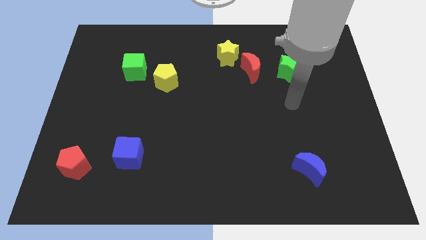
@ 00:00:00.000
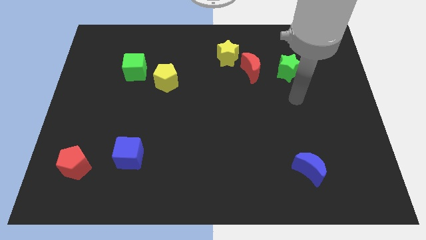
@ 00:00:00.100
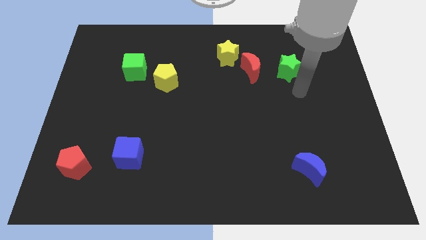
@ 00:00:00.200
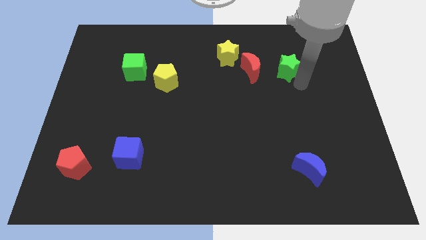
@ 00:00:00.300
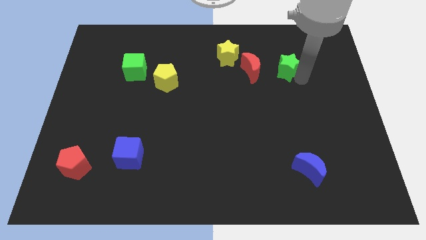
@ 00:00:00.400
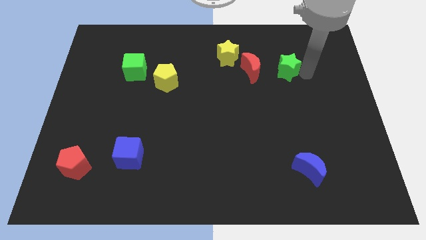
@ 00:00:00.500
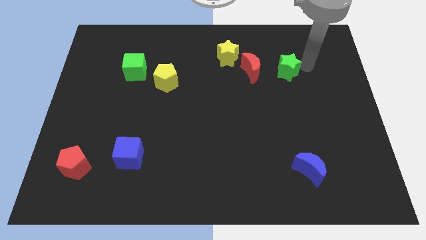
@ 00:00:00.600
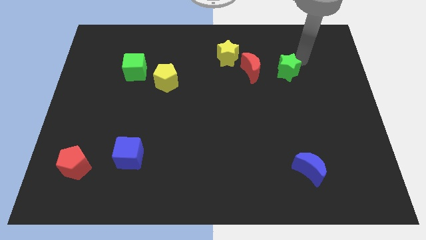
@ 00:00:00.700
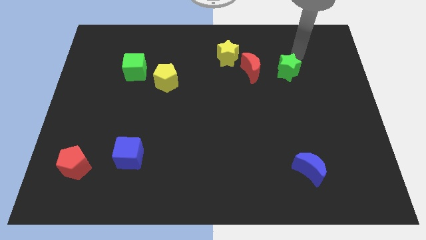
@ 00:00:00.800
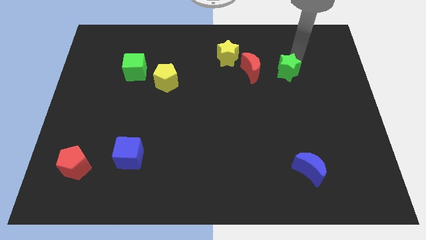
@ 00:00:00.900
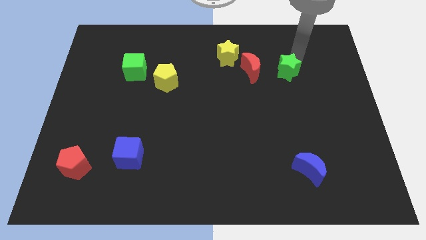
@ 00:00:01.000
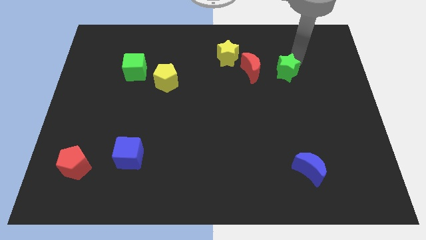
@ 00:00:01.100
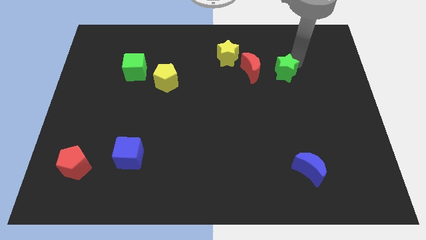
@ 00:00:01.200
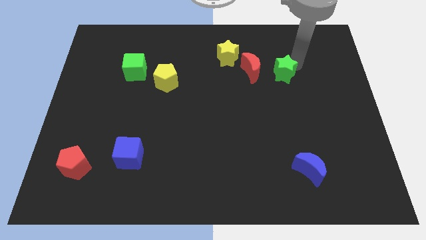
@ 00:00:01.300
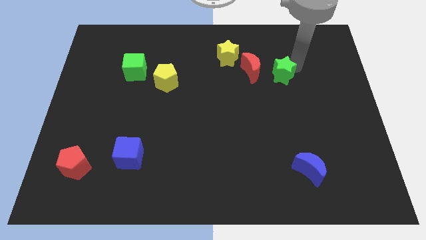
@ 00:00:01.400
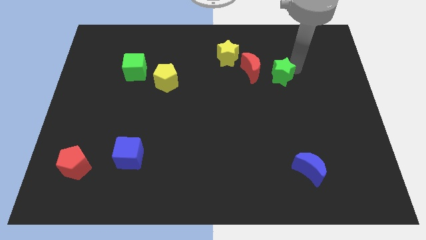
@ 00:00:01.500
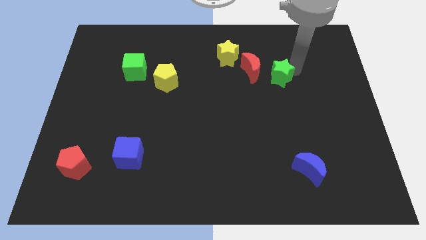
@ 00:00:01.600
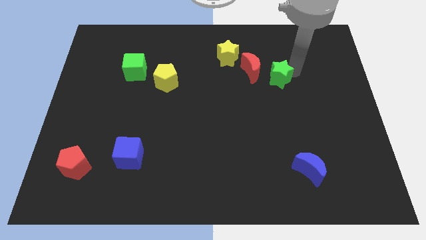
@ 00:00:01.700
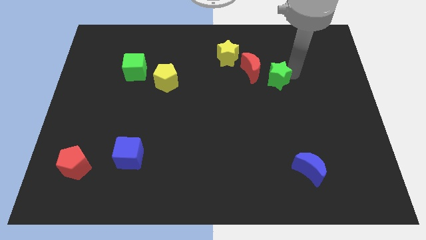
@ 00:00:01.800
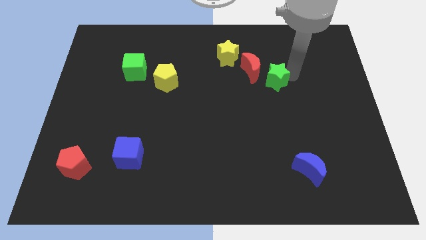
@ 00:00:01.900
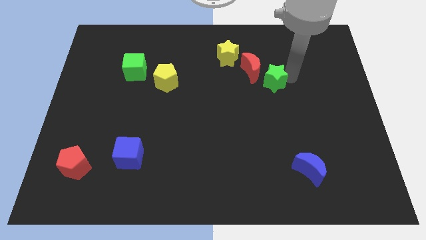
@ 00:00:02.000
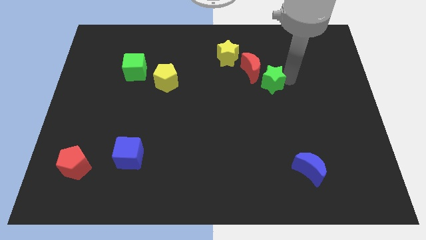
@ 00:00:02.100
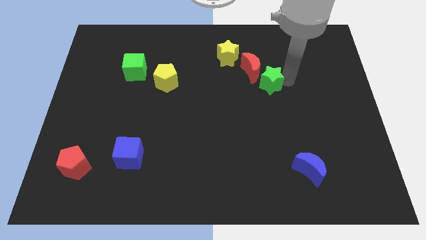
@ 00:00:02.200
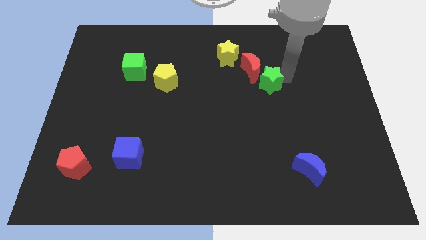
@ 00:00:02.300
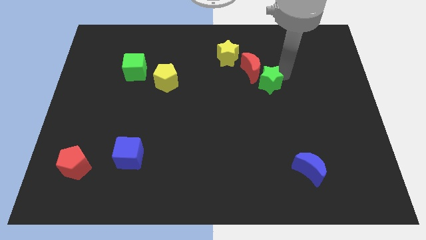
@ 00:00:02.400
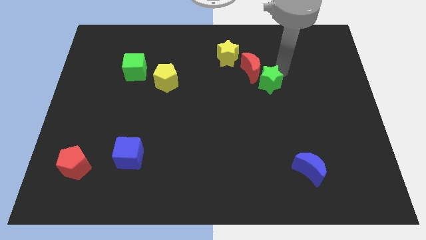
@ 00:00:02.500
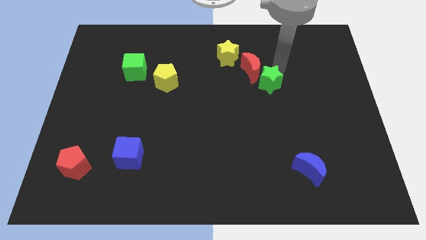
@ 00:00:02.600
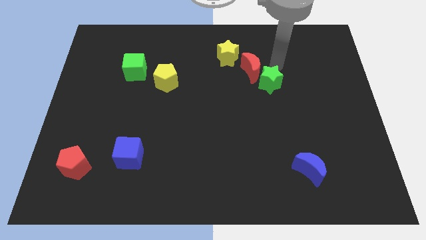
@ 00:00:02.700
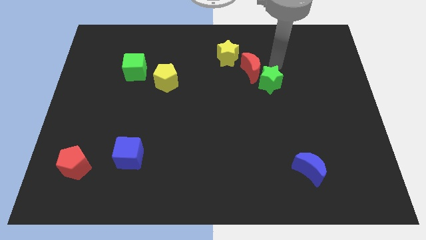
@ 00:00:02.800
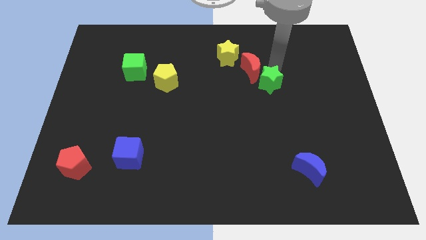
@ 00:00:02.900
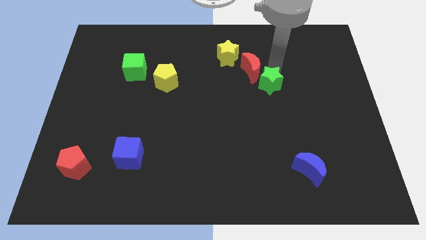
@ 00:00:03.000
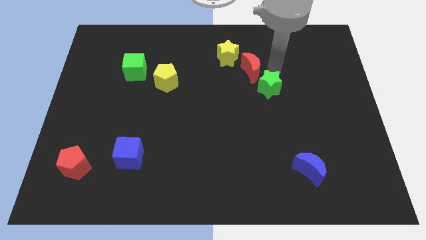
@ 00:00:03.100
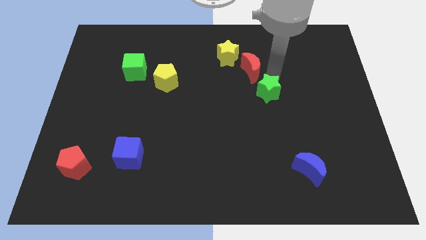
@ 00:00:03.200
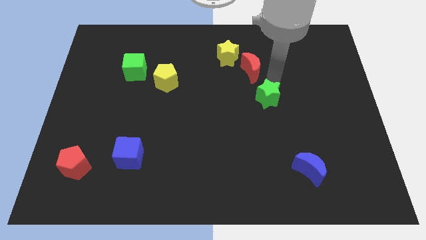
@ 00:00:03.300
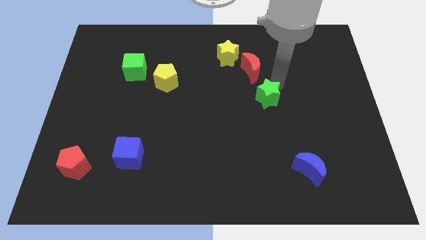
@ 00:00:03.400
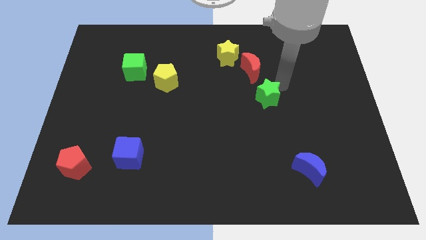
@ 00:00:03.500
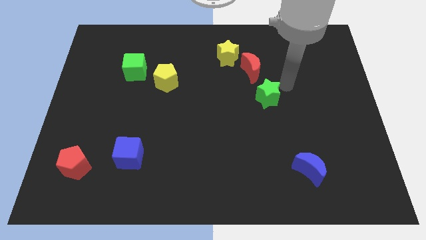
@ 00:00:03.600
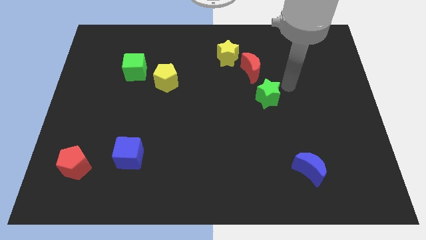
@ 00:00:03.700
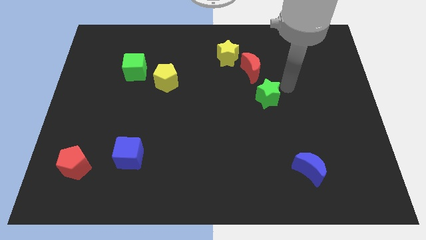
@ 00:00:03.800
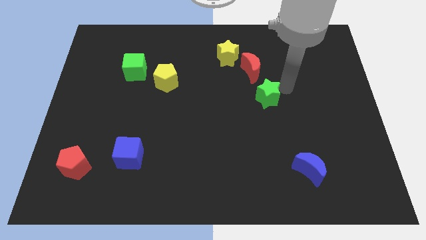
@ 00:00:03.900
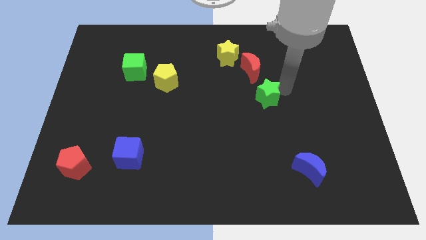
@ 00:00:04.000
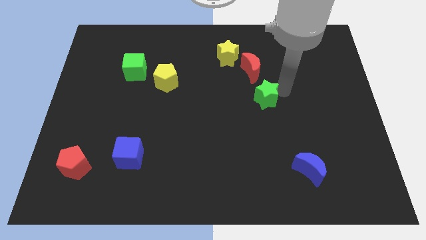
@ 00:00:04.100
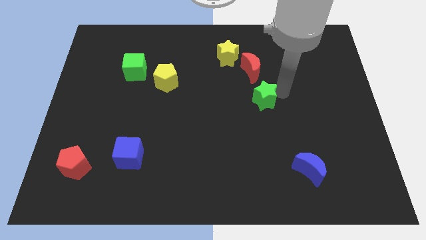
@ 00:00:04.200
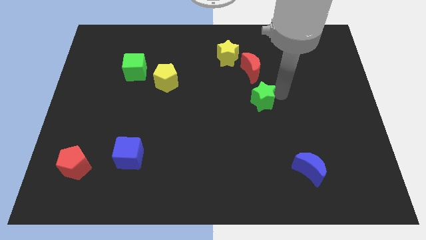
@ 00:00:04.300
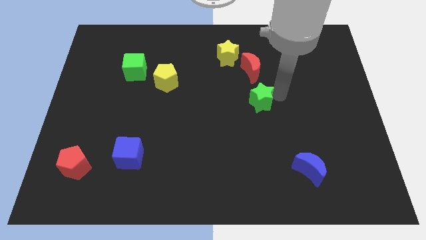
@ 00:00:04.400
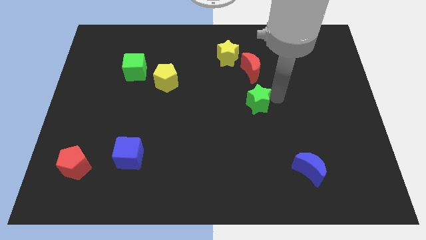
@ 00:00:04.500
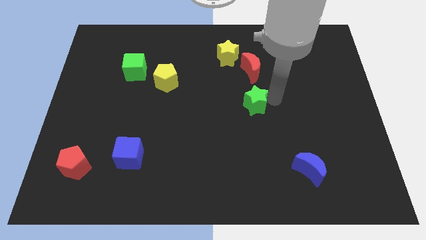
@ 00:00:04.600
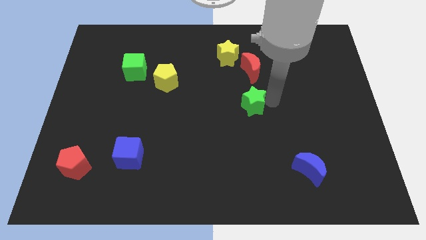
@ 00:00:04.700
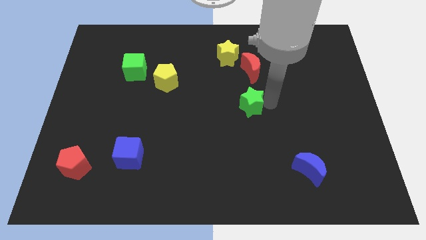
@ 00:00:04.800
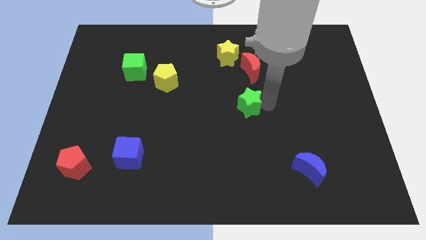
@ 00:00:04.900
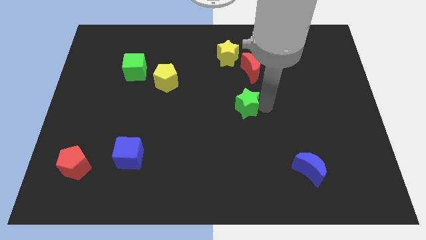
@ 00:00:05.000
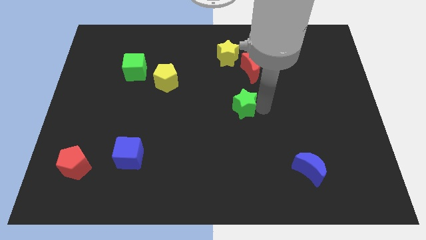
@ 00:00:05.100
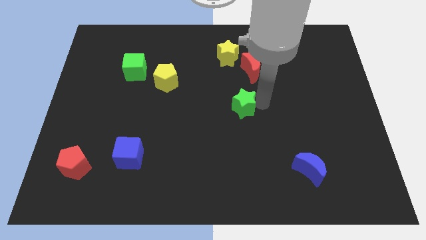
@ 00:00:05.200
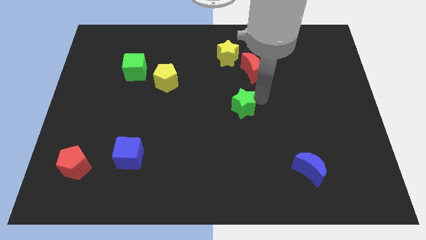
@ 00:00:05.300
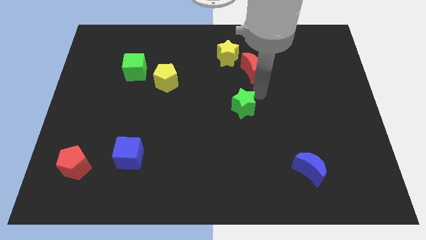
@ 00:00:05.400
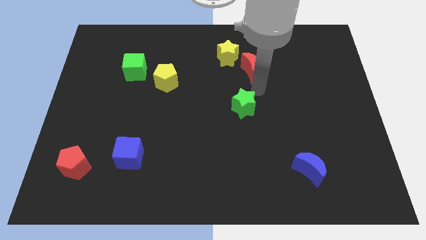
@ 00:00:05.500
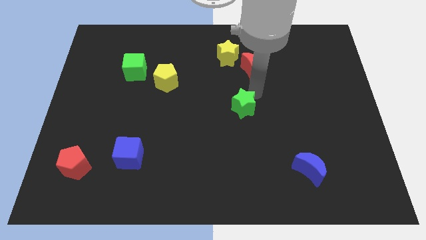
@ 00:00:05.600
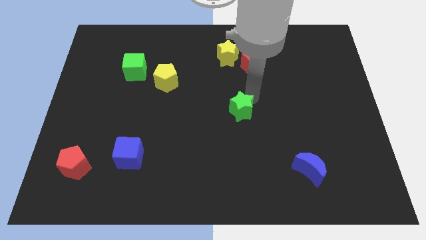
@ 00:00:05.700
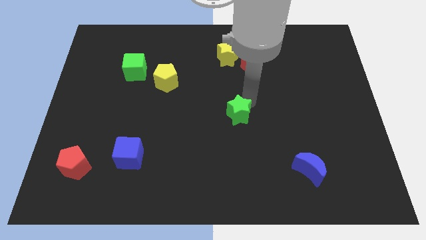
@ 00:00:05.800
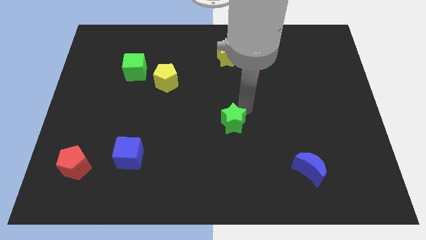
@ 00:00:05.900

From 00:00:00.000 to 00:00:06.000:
slide the green star downwards and then left

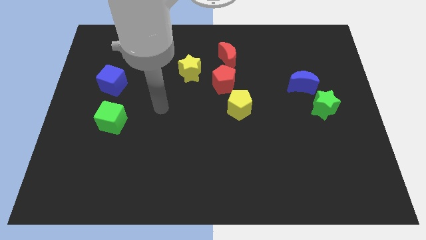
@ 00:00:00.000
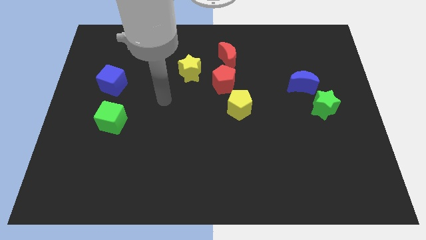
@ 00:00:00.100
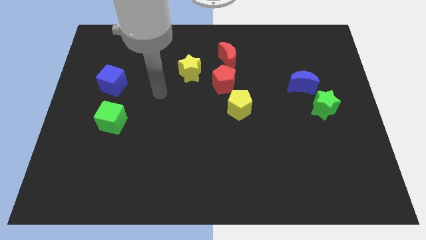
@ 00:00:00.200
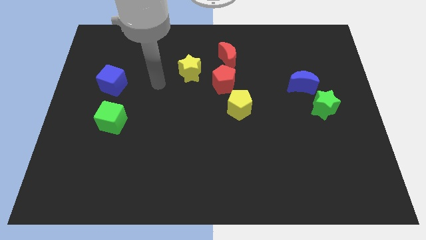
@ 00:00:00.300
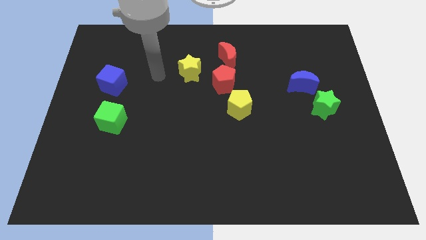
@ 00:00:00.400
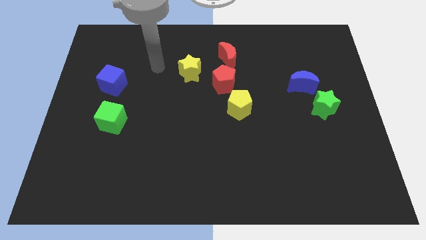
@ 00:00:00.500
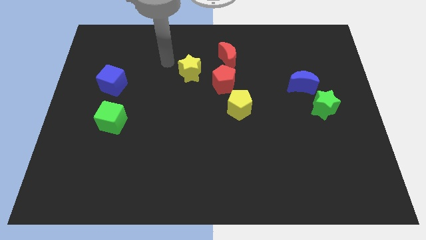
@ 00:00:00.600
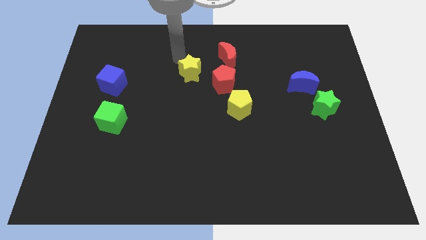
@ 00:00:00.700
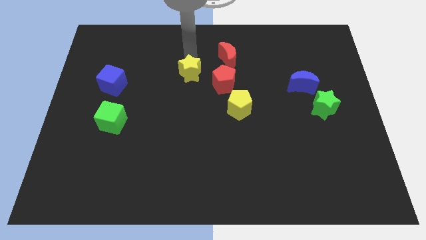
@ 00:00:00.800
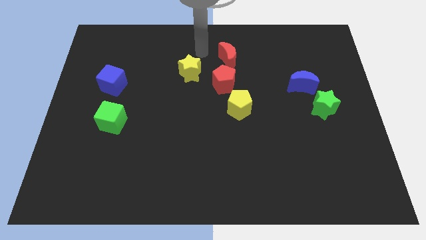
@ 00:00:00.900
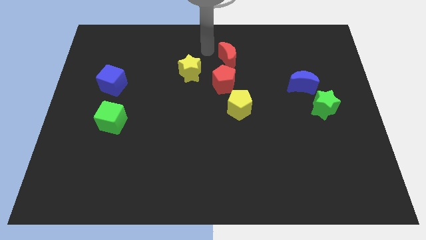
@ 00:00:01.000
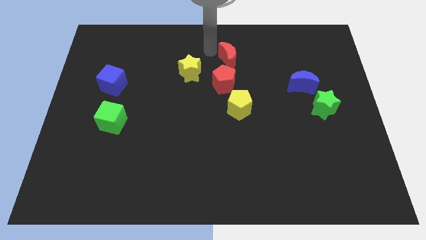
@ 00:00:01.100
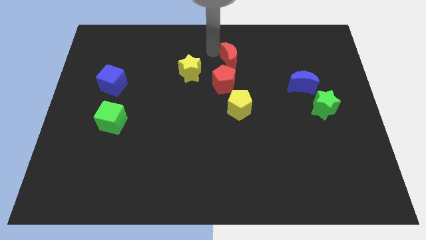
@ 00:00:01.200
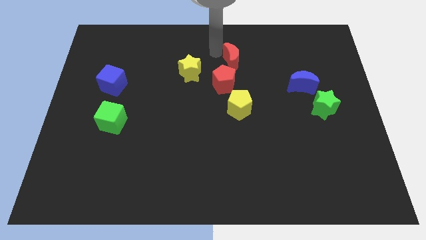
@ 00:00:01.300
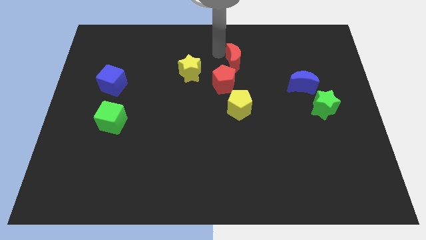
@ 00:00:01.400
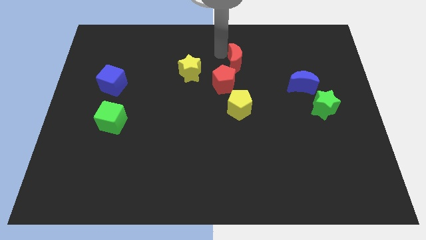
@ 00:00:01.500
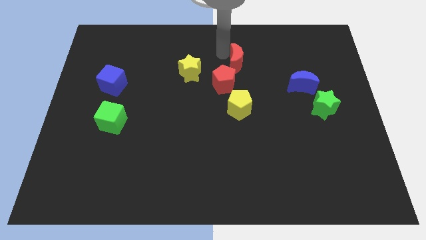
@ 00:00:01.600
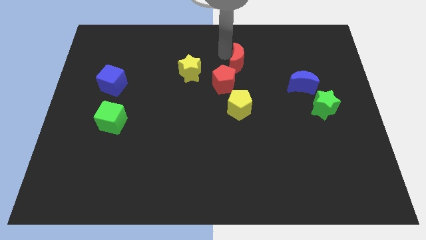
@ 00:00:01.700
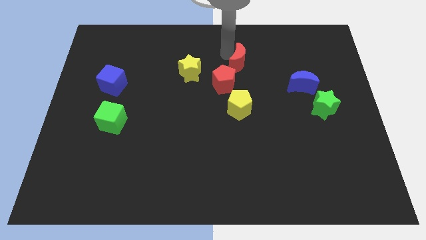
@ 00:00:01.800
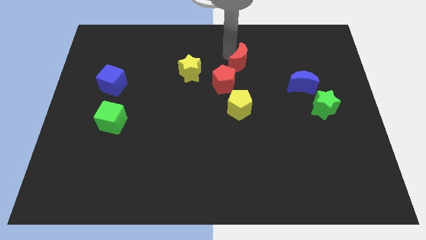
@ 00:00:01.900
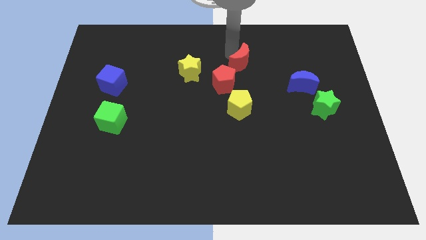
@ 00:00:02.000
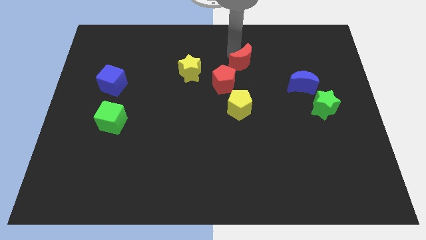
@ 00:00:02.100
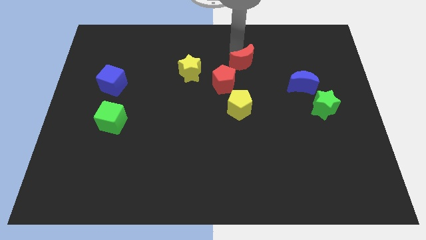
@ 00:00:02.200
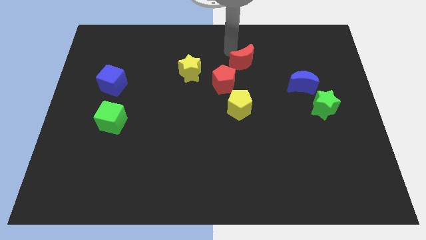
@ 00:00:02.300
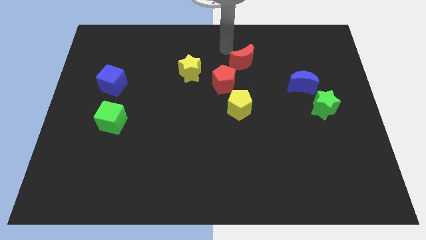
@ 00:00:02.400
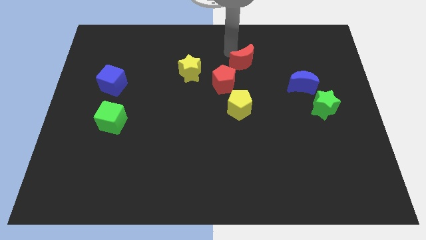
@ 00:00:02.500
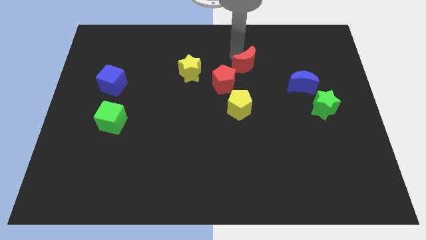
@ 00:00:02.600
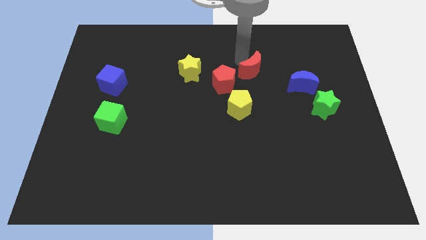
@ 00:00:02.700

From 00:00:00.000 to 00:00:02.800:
push the red moon diagonally down and right a little
